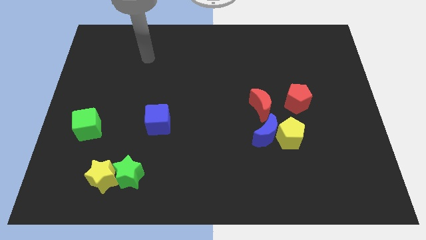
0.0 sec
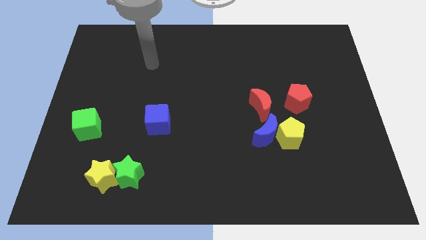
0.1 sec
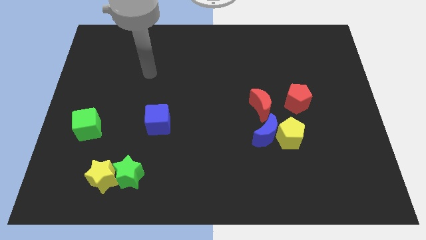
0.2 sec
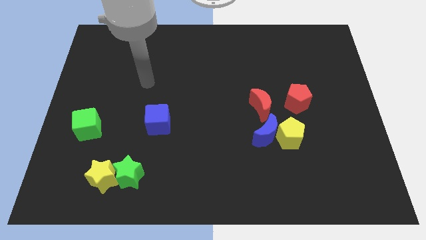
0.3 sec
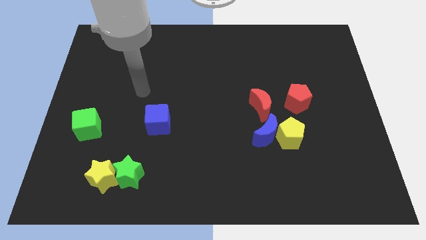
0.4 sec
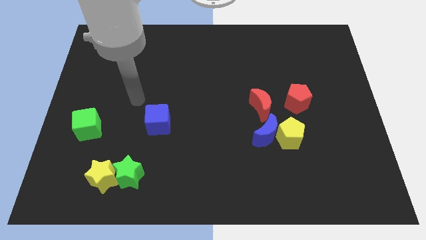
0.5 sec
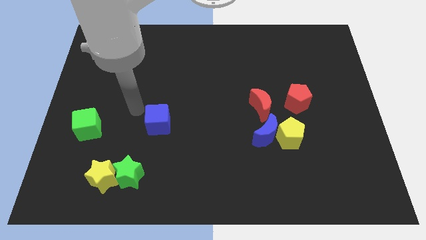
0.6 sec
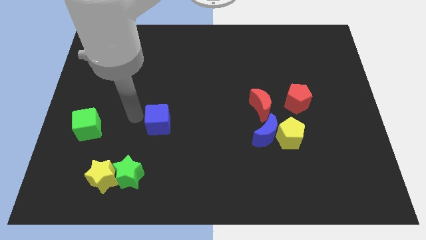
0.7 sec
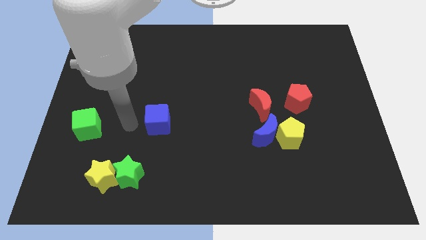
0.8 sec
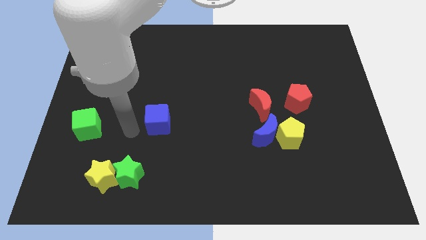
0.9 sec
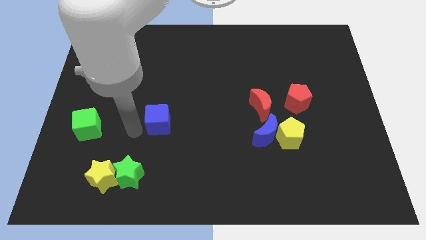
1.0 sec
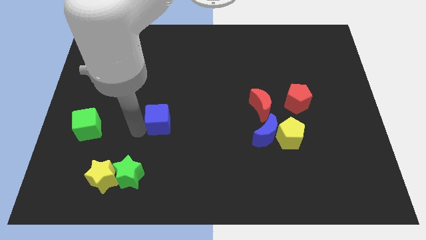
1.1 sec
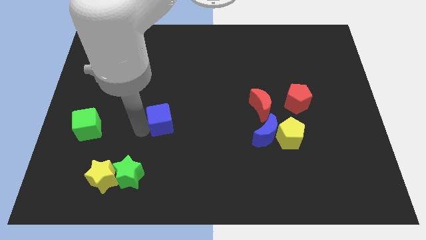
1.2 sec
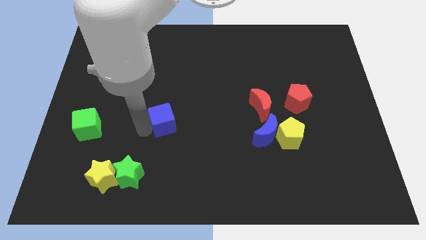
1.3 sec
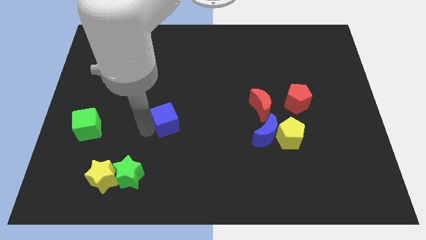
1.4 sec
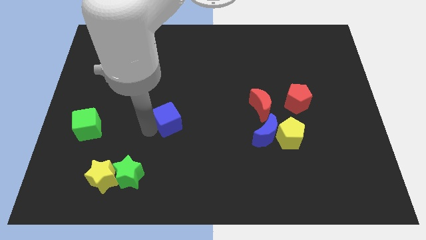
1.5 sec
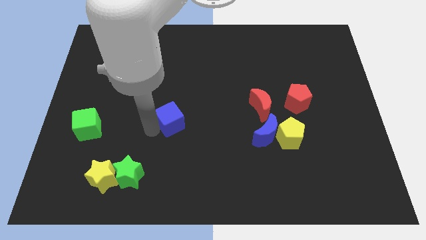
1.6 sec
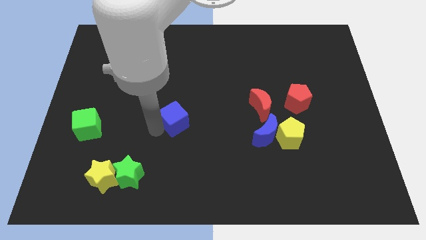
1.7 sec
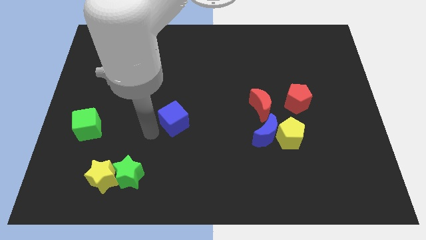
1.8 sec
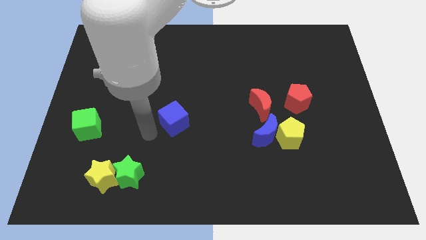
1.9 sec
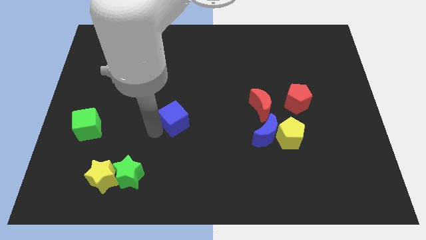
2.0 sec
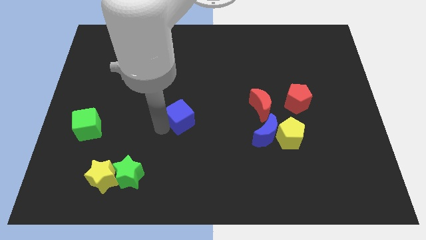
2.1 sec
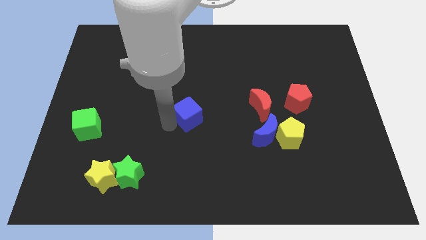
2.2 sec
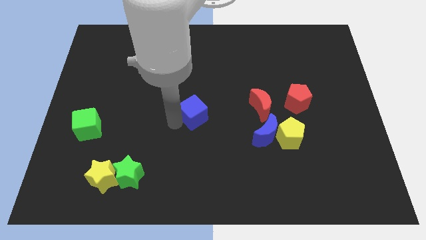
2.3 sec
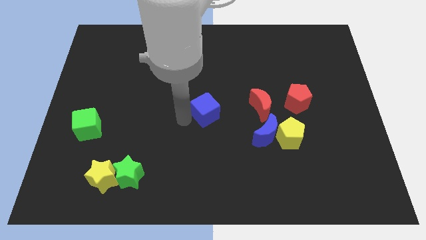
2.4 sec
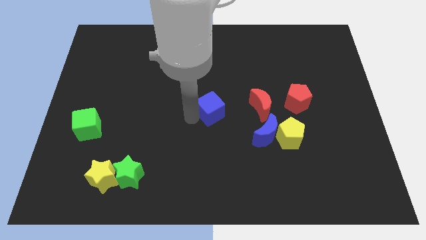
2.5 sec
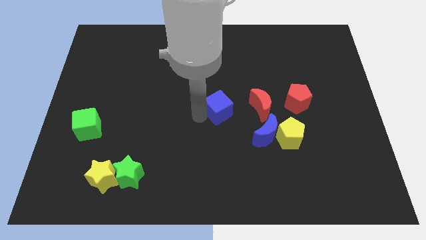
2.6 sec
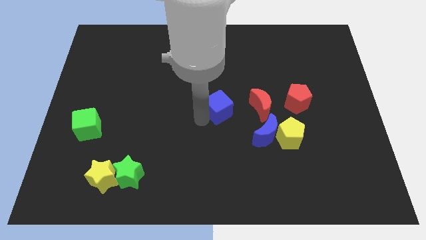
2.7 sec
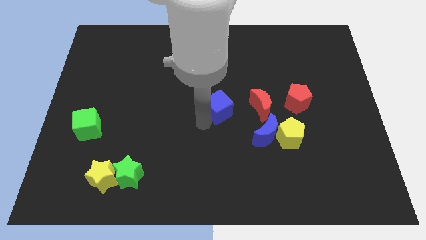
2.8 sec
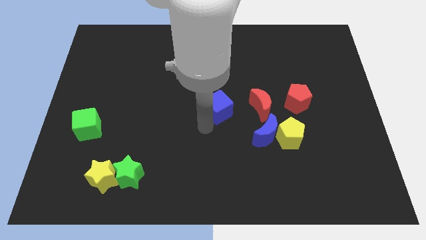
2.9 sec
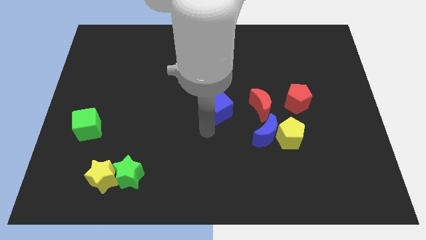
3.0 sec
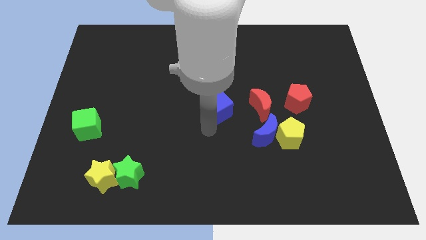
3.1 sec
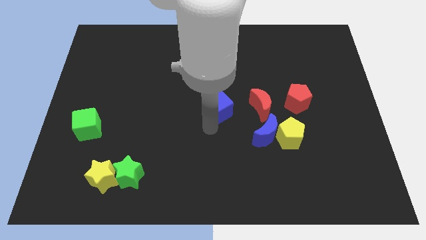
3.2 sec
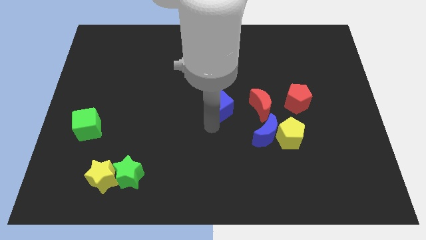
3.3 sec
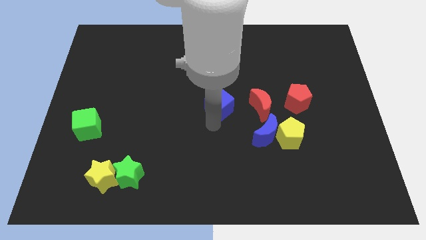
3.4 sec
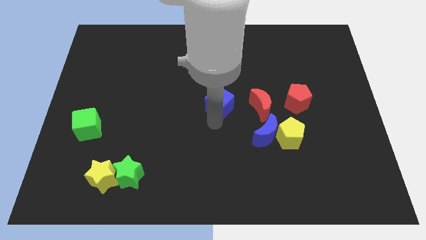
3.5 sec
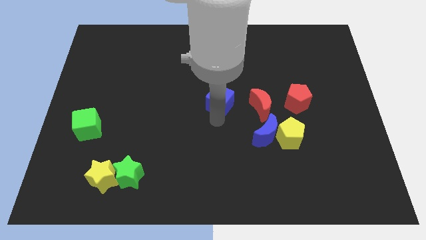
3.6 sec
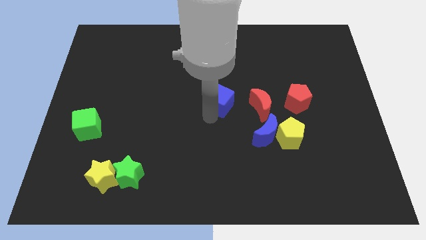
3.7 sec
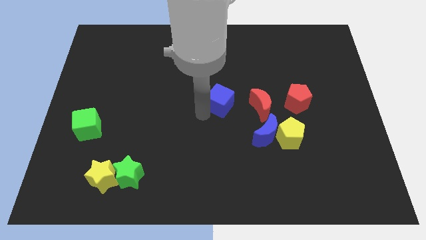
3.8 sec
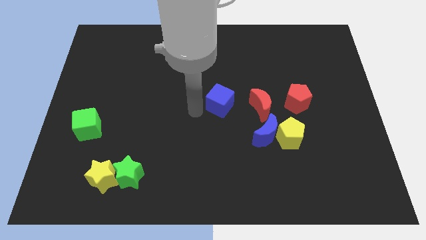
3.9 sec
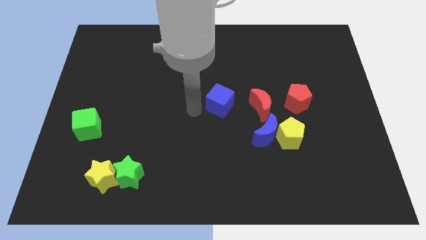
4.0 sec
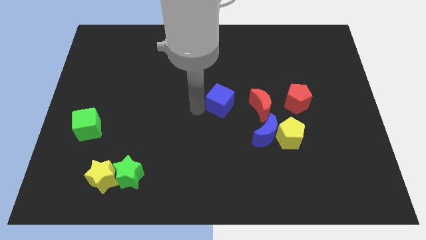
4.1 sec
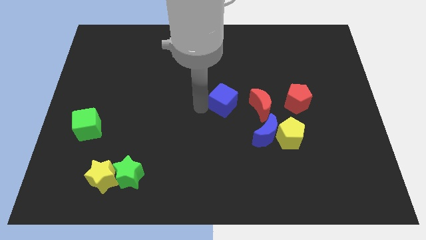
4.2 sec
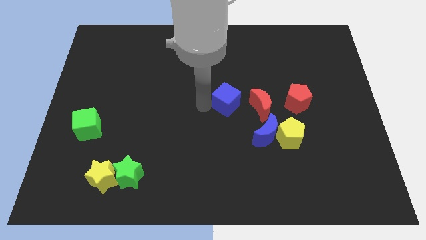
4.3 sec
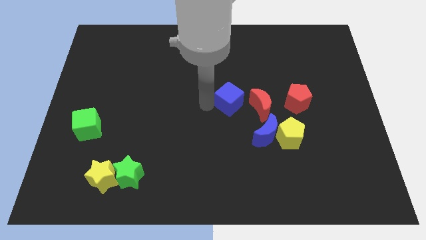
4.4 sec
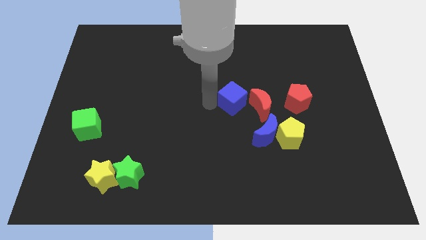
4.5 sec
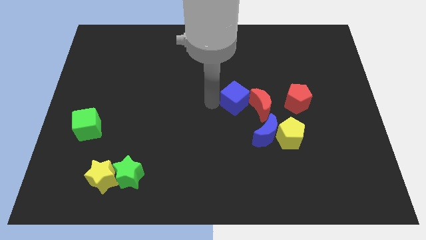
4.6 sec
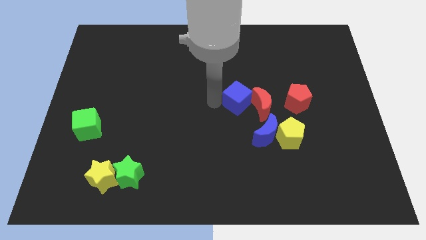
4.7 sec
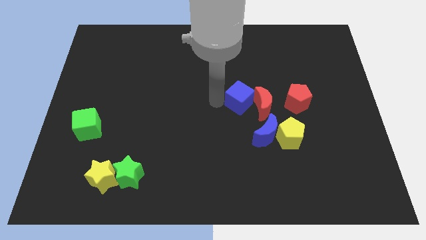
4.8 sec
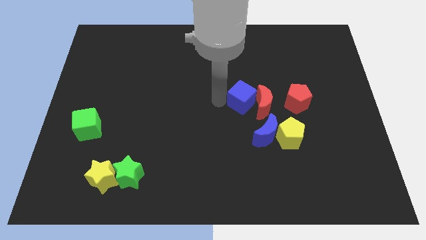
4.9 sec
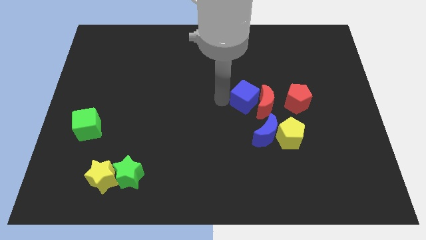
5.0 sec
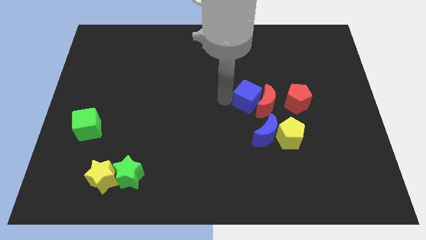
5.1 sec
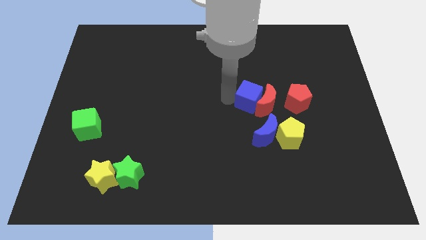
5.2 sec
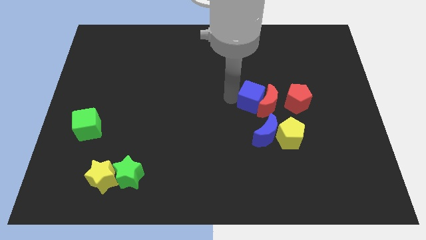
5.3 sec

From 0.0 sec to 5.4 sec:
push the blue cube to the right

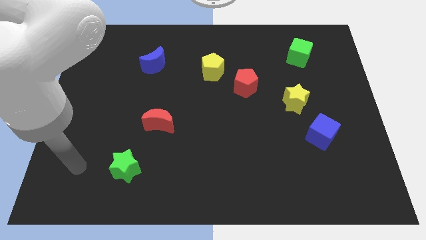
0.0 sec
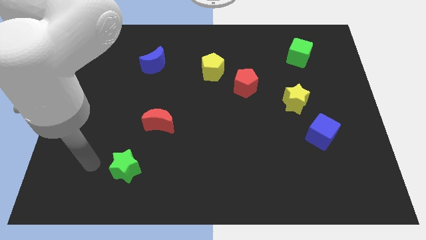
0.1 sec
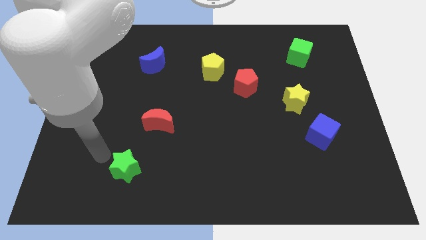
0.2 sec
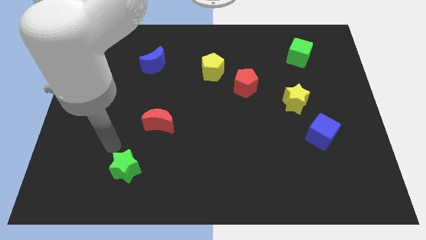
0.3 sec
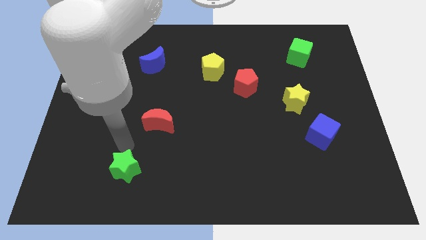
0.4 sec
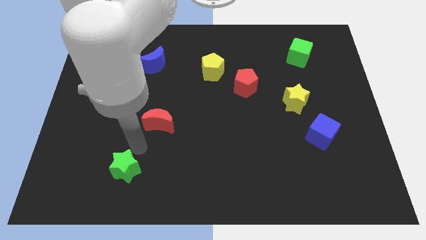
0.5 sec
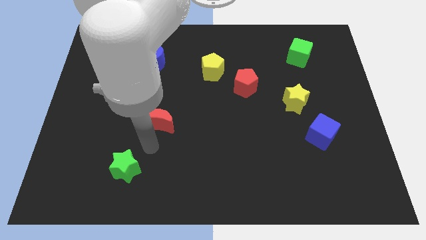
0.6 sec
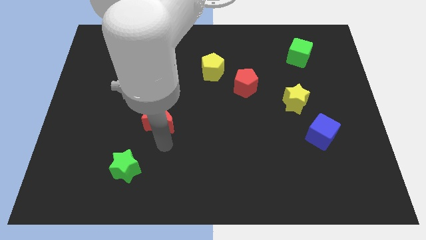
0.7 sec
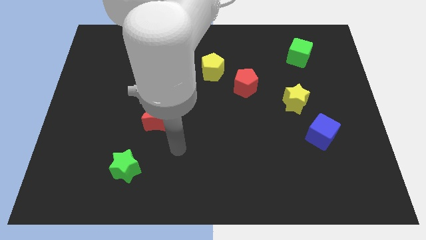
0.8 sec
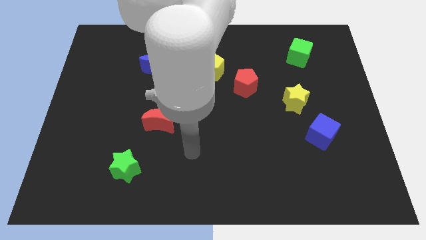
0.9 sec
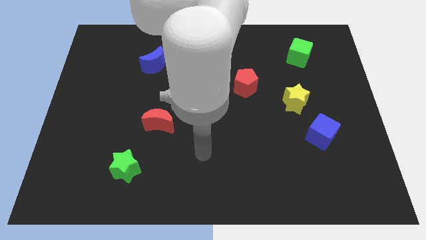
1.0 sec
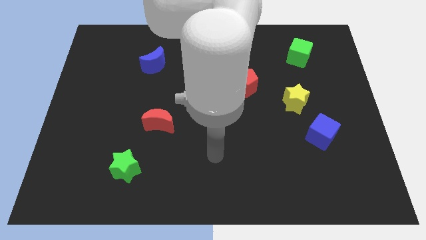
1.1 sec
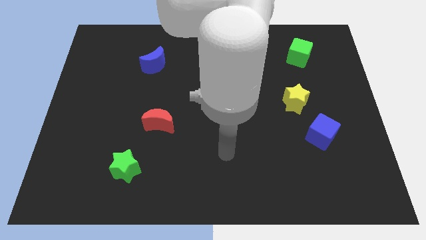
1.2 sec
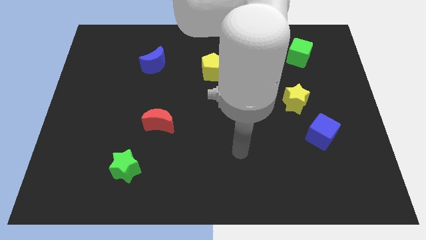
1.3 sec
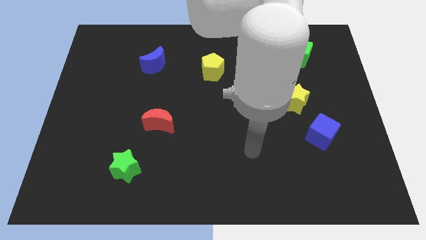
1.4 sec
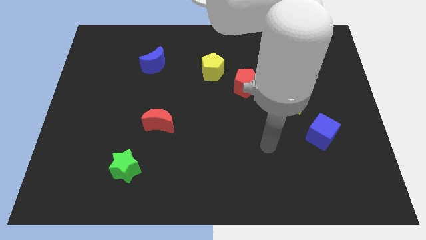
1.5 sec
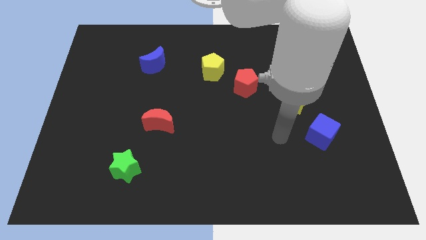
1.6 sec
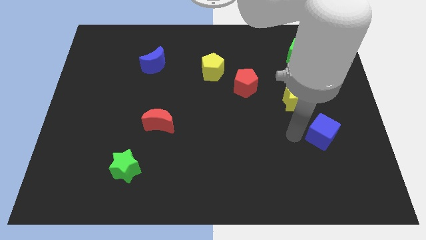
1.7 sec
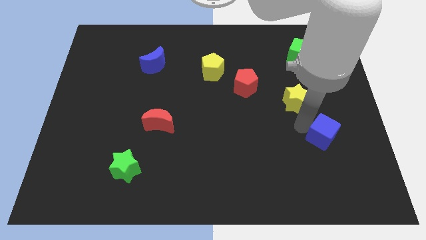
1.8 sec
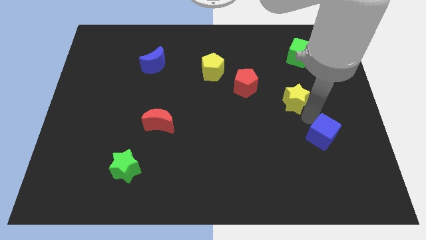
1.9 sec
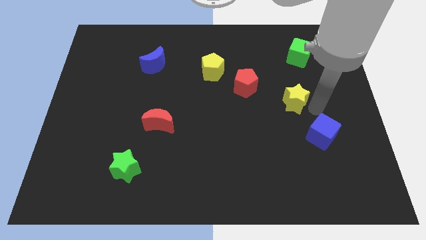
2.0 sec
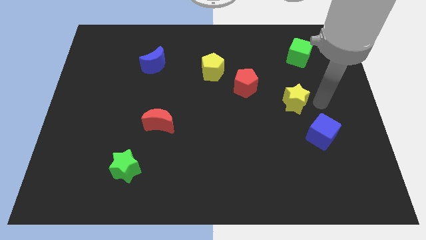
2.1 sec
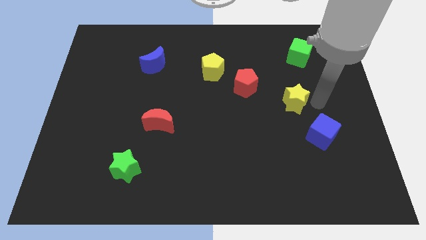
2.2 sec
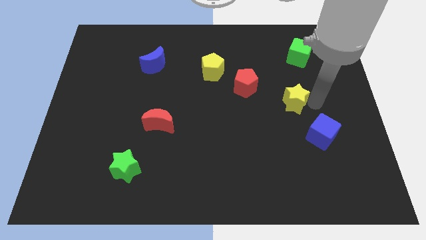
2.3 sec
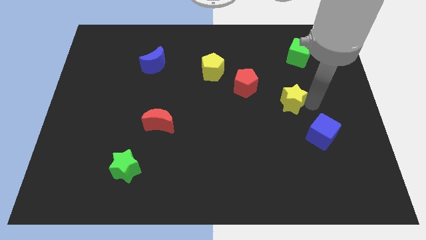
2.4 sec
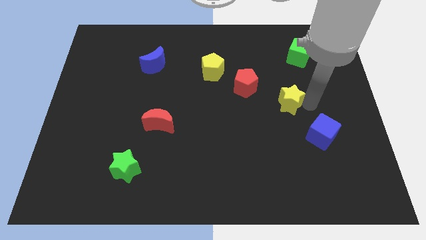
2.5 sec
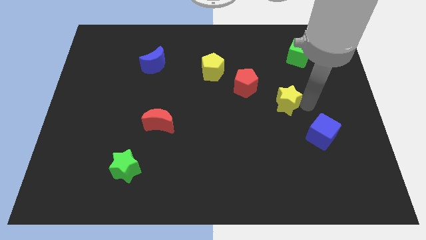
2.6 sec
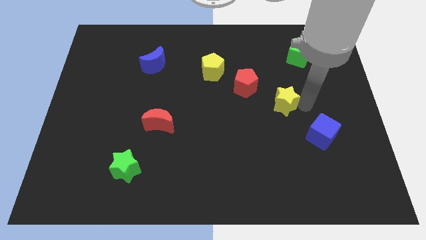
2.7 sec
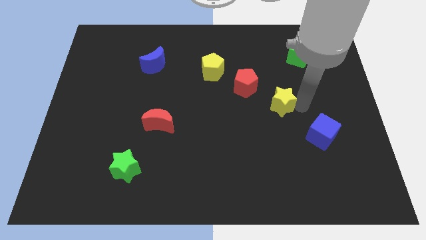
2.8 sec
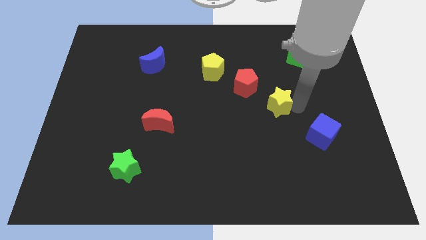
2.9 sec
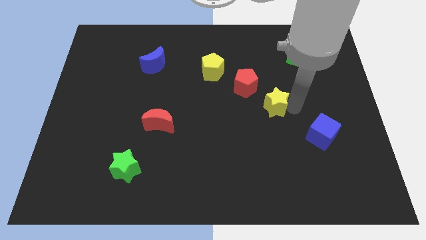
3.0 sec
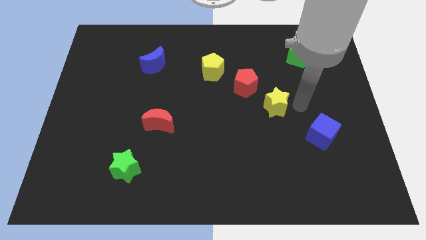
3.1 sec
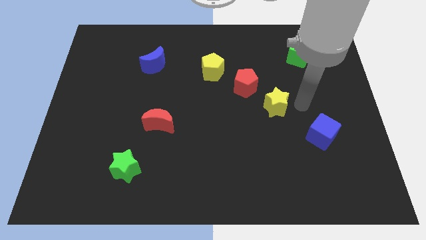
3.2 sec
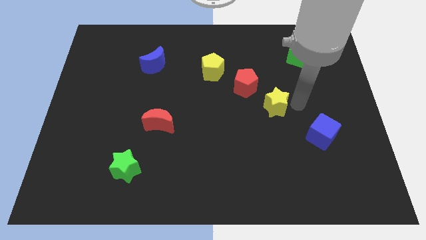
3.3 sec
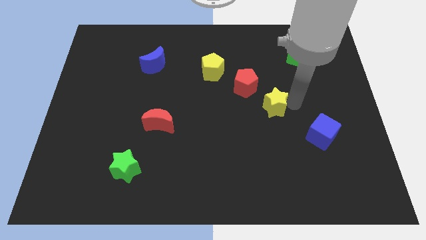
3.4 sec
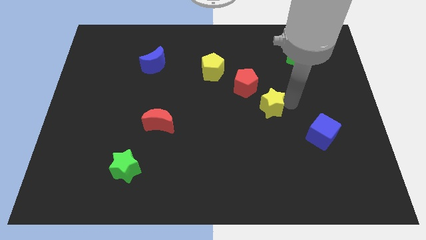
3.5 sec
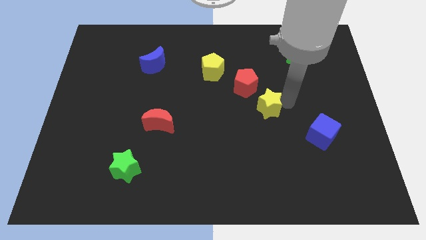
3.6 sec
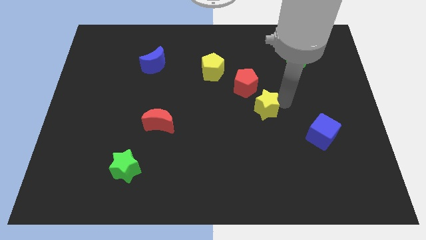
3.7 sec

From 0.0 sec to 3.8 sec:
slide the yellow star to the left slightly
